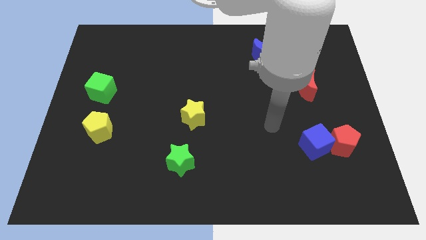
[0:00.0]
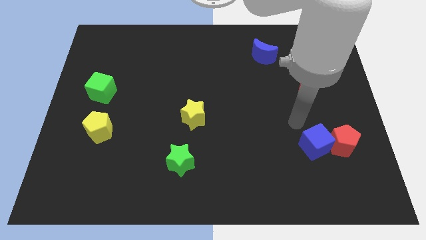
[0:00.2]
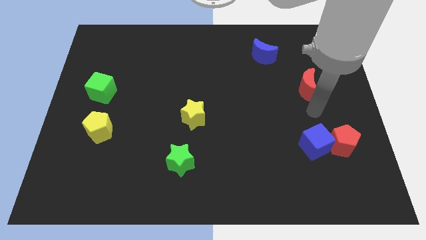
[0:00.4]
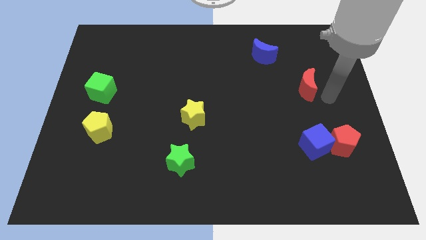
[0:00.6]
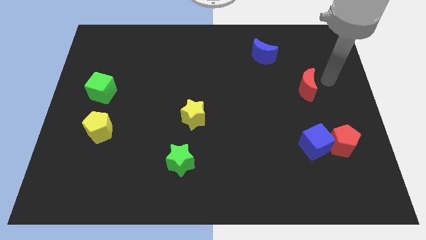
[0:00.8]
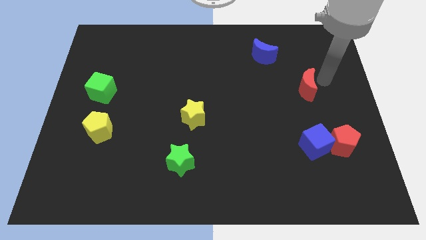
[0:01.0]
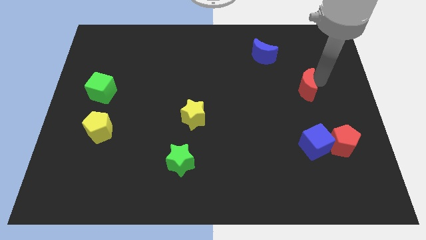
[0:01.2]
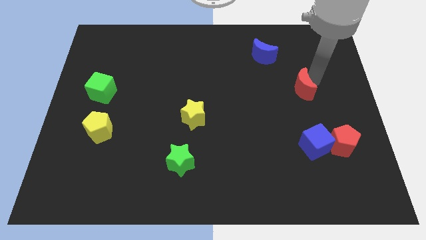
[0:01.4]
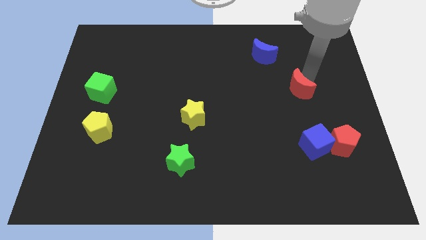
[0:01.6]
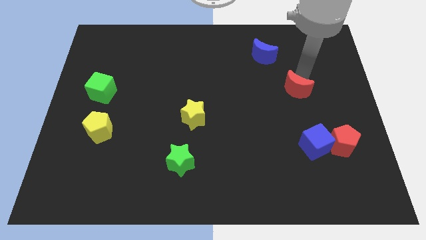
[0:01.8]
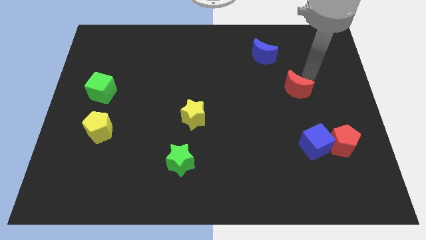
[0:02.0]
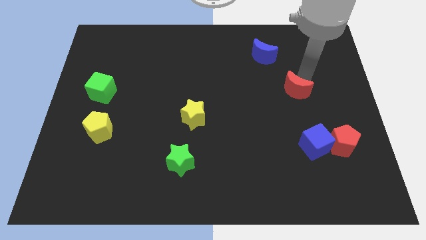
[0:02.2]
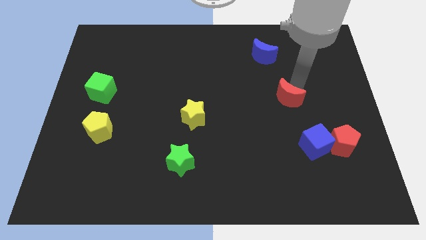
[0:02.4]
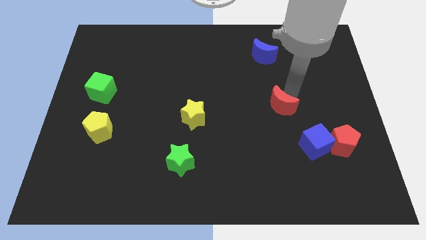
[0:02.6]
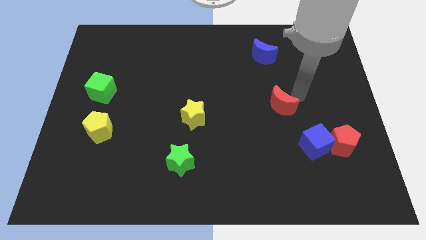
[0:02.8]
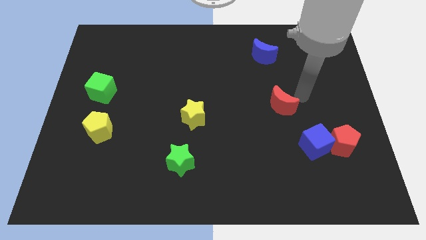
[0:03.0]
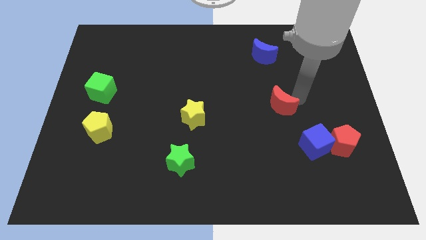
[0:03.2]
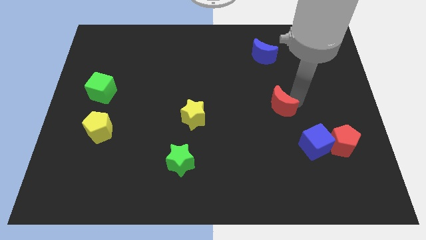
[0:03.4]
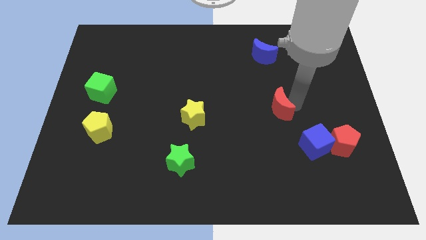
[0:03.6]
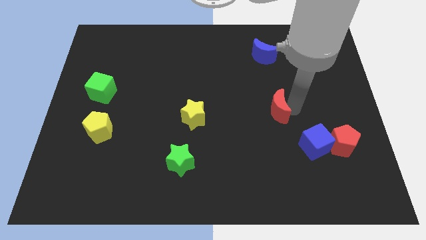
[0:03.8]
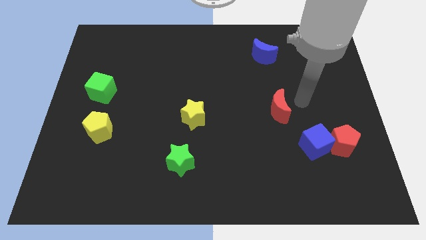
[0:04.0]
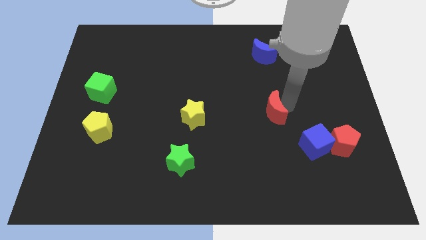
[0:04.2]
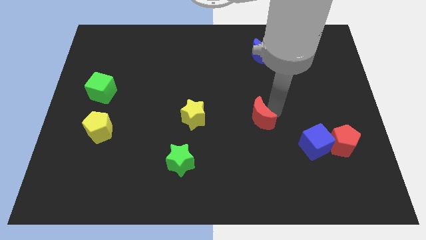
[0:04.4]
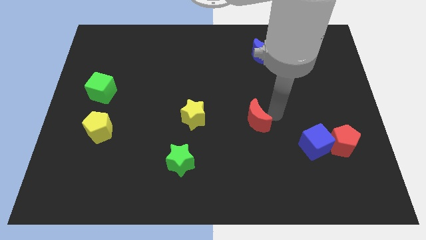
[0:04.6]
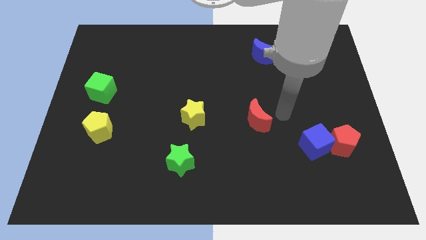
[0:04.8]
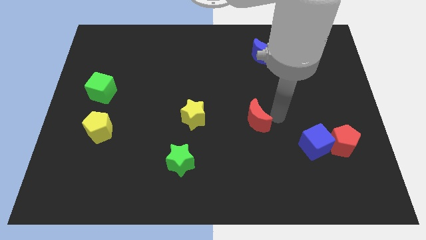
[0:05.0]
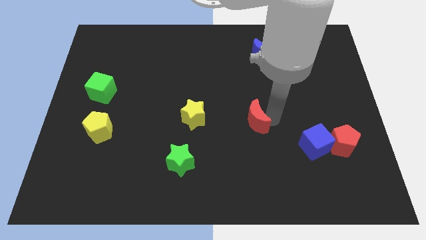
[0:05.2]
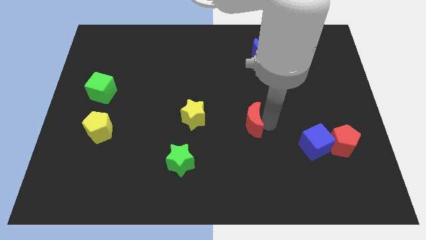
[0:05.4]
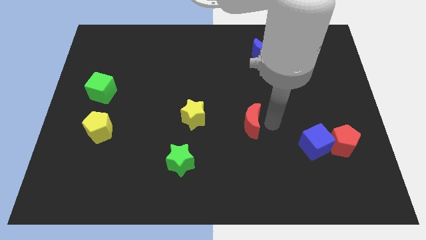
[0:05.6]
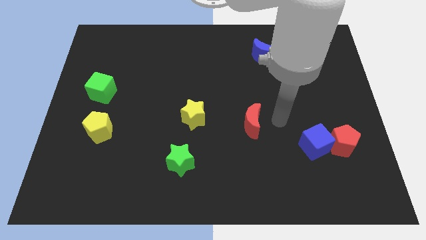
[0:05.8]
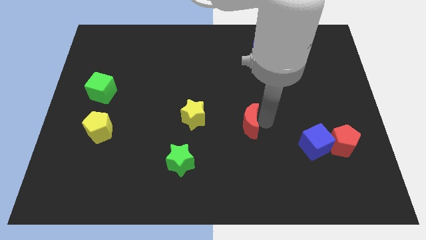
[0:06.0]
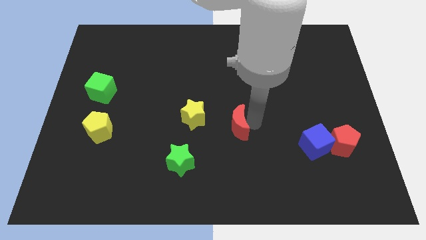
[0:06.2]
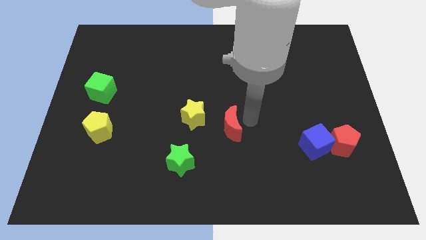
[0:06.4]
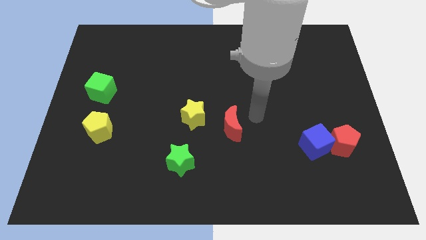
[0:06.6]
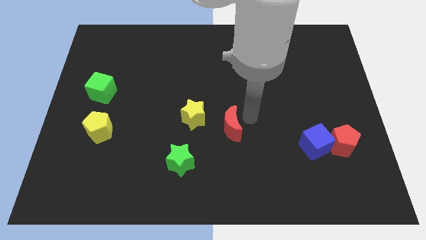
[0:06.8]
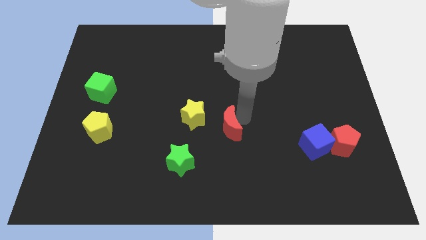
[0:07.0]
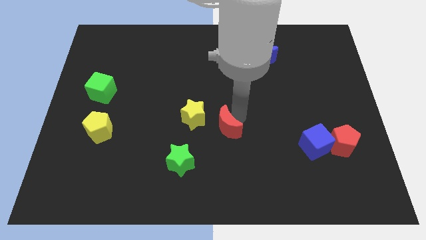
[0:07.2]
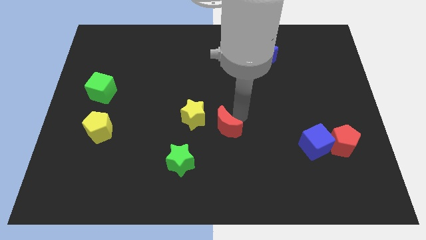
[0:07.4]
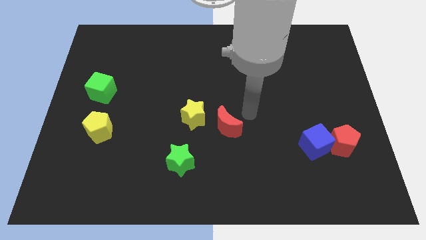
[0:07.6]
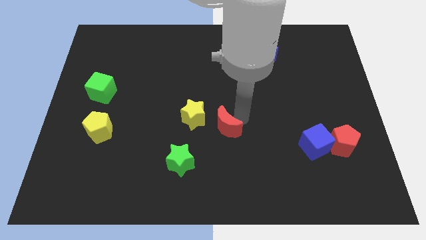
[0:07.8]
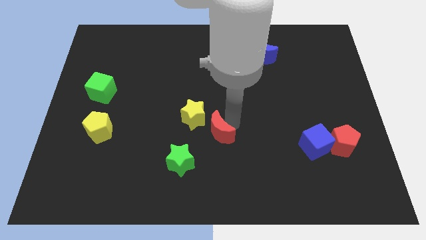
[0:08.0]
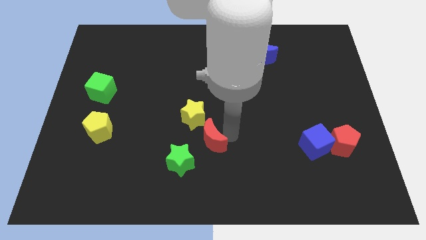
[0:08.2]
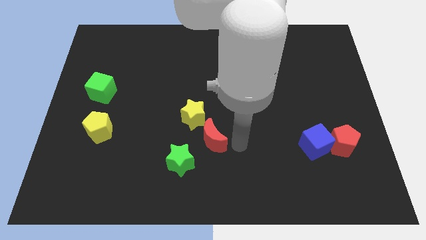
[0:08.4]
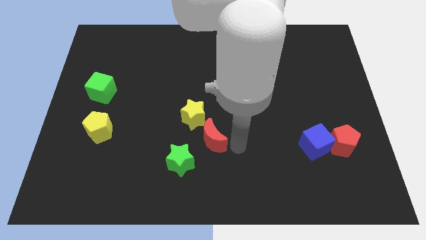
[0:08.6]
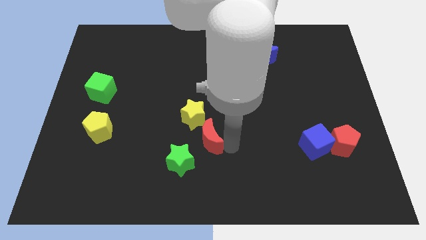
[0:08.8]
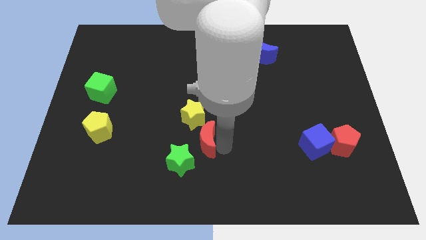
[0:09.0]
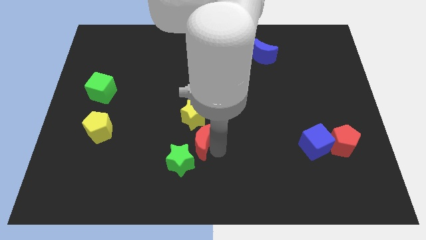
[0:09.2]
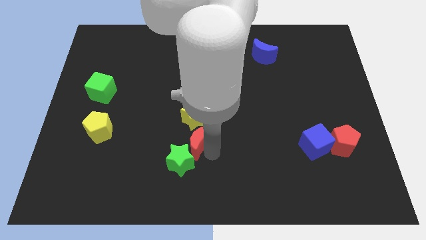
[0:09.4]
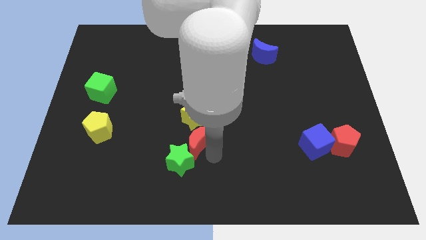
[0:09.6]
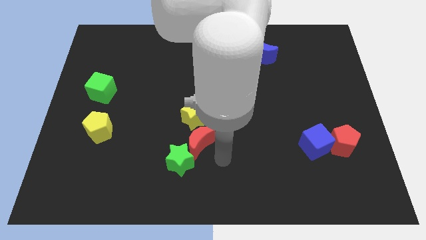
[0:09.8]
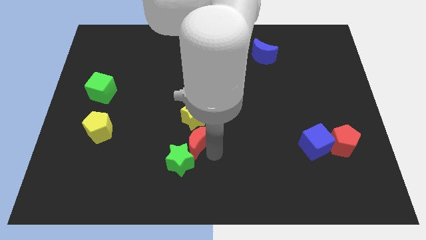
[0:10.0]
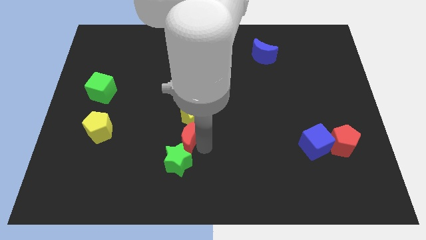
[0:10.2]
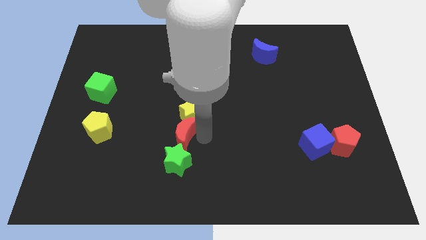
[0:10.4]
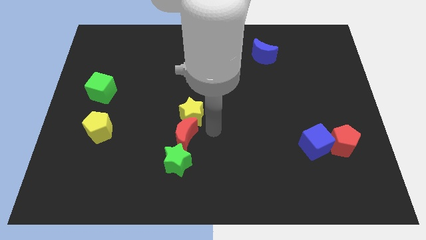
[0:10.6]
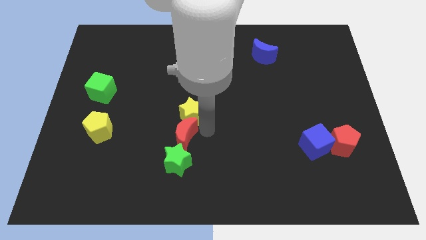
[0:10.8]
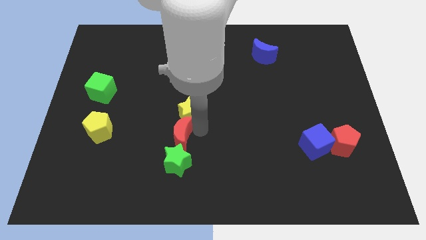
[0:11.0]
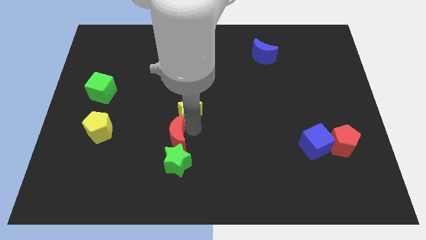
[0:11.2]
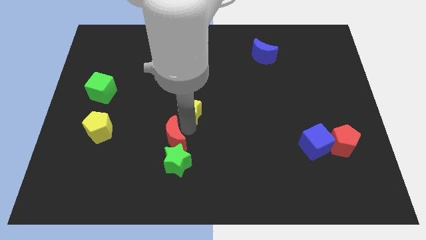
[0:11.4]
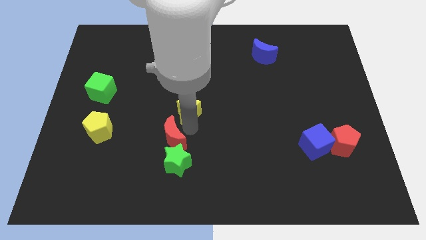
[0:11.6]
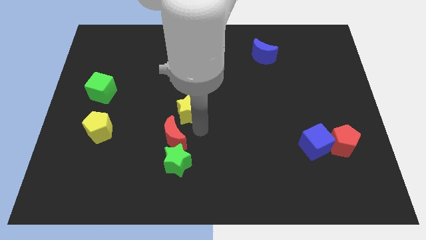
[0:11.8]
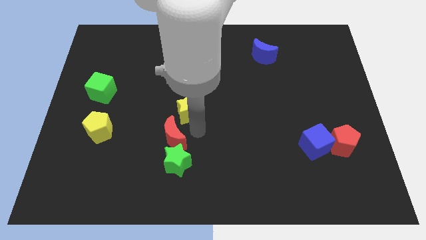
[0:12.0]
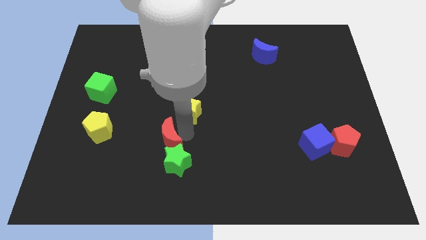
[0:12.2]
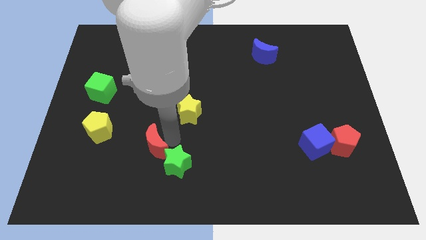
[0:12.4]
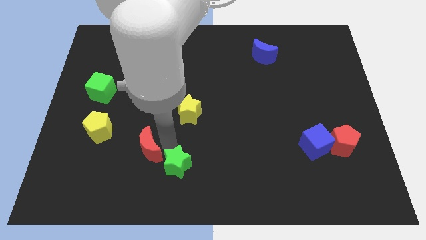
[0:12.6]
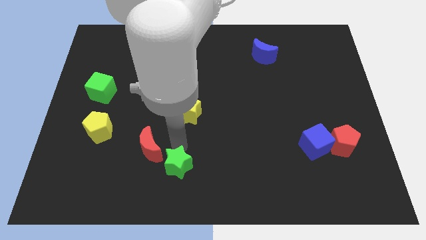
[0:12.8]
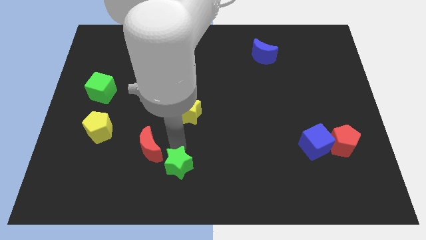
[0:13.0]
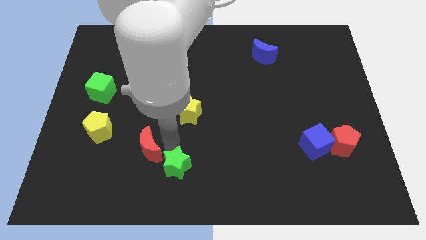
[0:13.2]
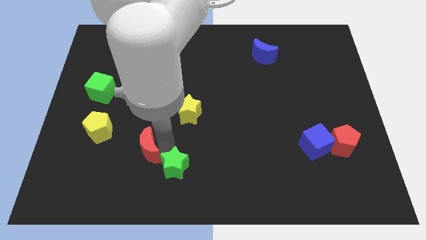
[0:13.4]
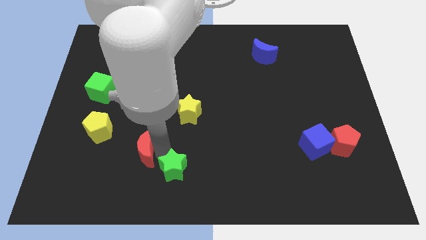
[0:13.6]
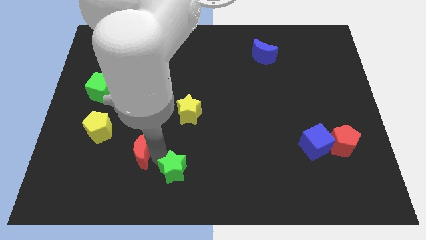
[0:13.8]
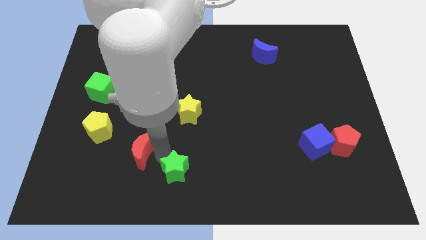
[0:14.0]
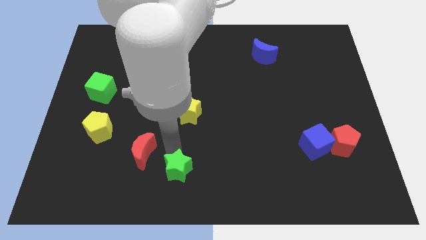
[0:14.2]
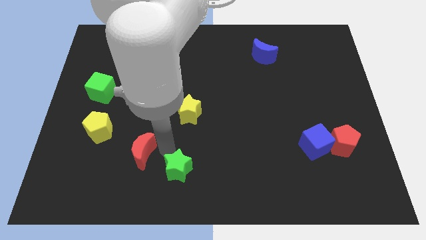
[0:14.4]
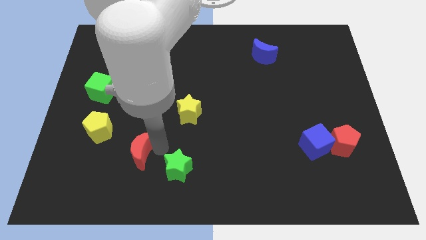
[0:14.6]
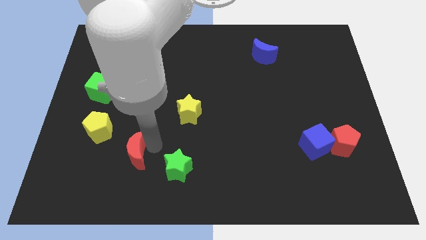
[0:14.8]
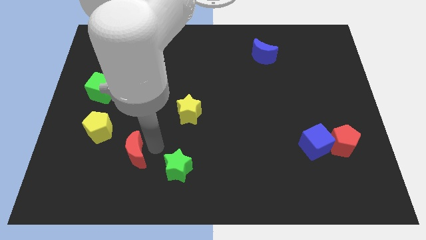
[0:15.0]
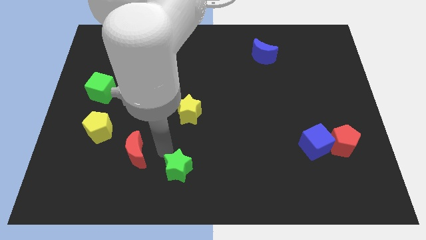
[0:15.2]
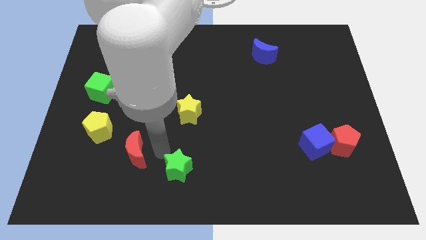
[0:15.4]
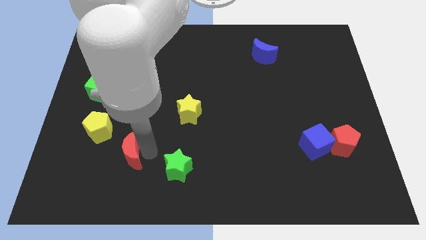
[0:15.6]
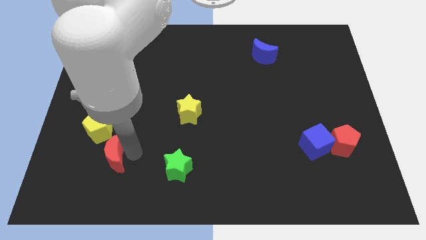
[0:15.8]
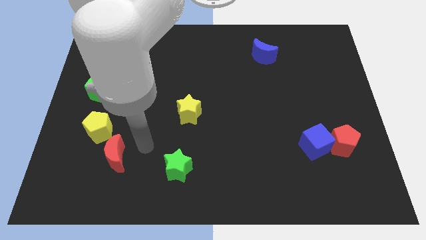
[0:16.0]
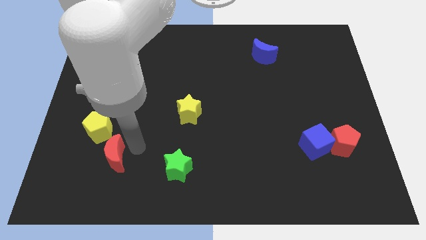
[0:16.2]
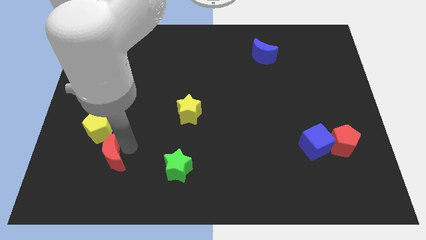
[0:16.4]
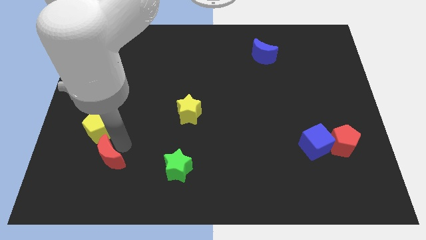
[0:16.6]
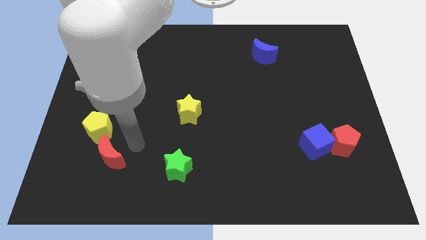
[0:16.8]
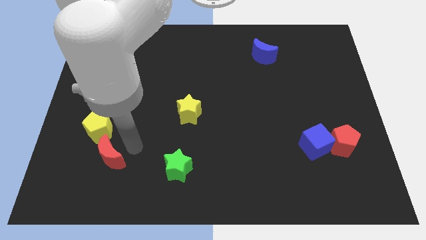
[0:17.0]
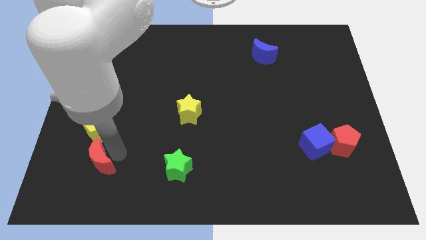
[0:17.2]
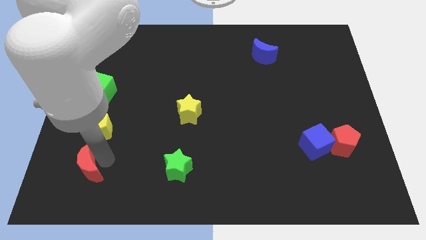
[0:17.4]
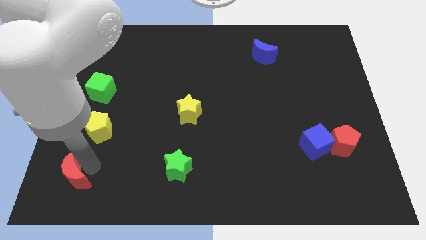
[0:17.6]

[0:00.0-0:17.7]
put the red moon to the lower left corner
